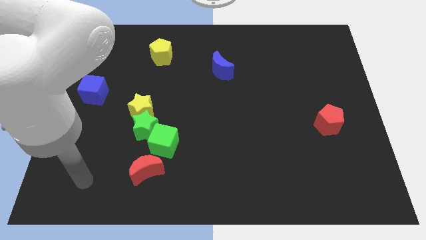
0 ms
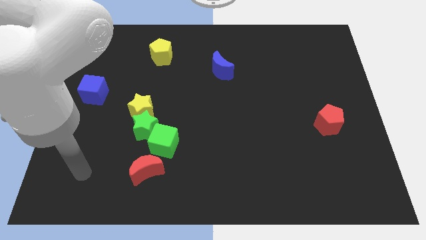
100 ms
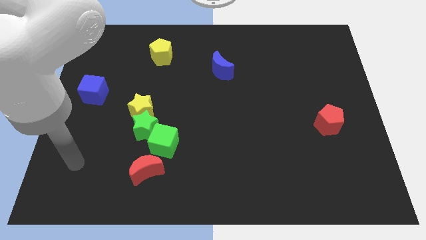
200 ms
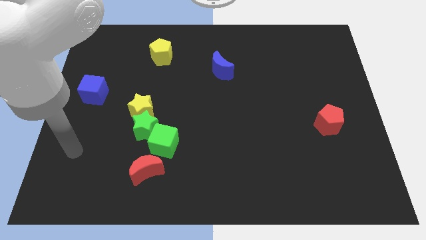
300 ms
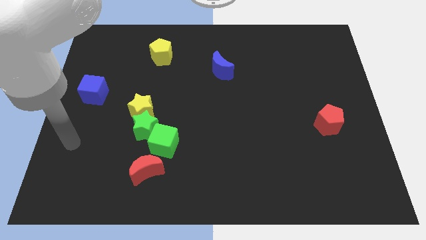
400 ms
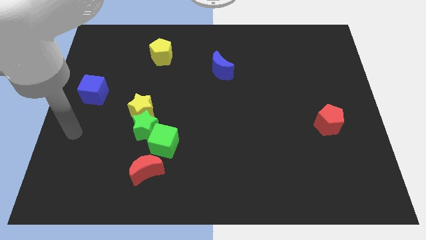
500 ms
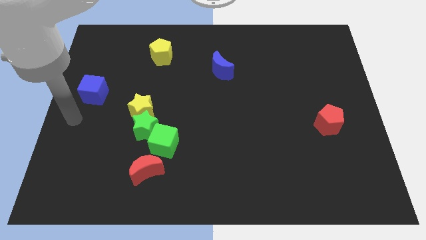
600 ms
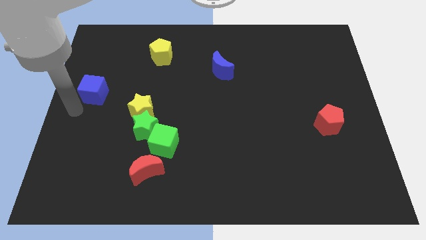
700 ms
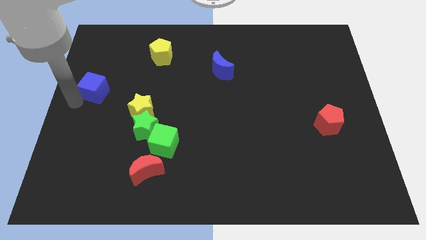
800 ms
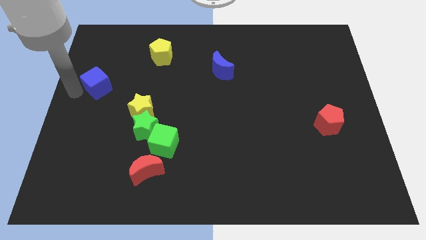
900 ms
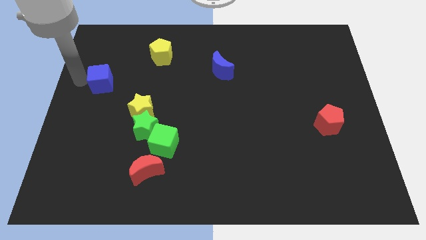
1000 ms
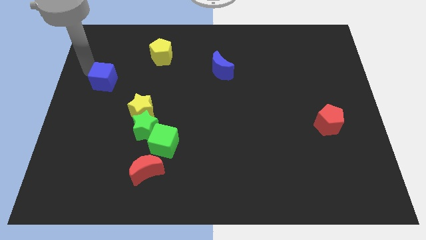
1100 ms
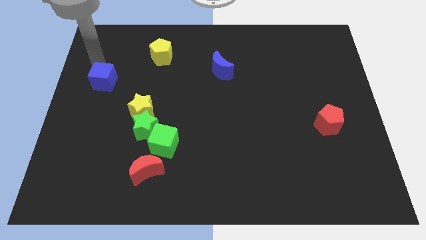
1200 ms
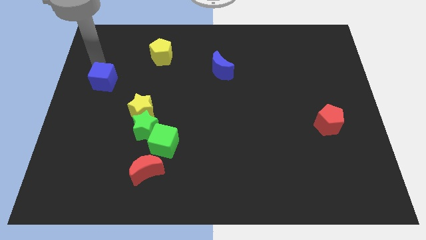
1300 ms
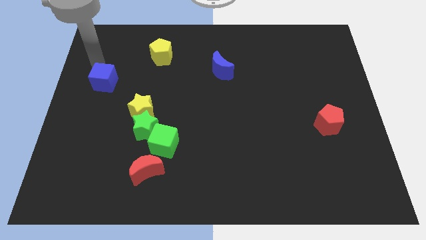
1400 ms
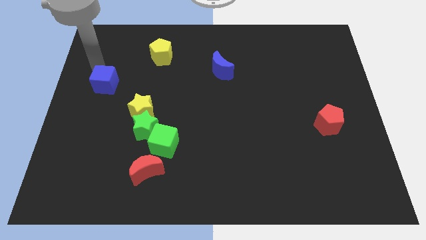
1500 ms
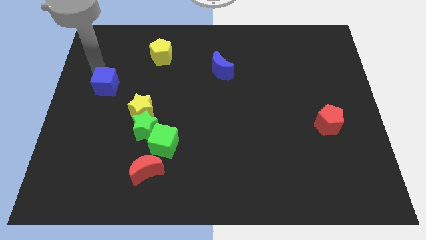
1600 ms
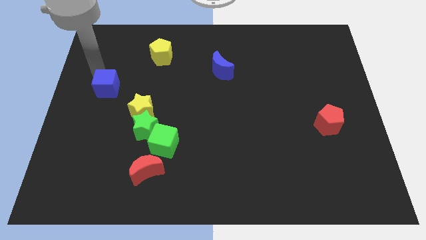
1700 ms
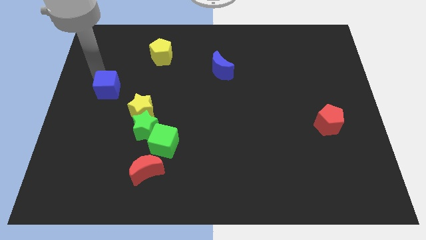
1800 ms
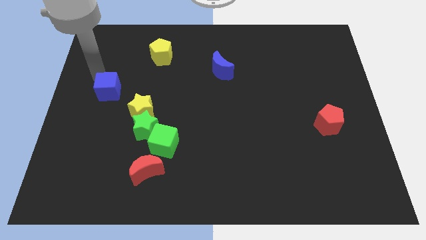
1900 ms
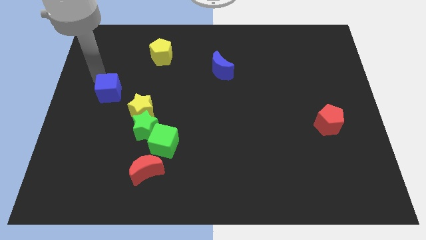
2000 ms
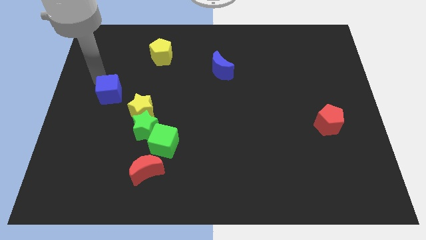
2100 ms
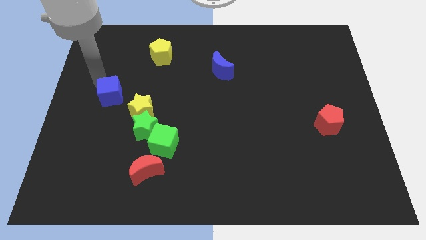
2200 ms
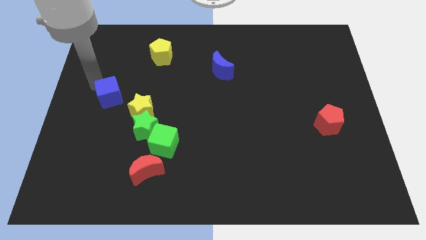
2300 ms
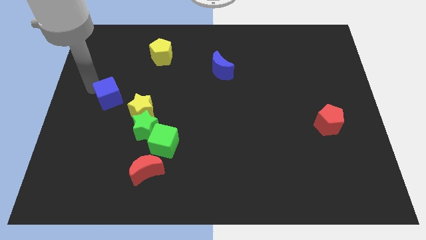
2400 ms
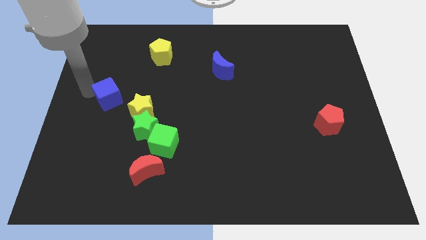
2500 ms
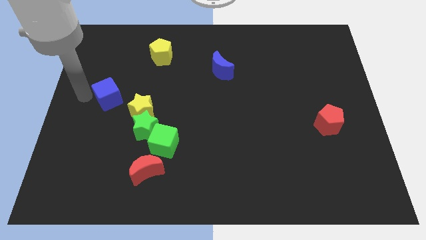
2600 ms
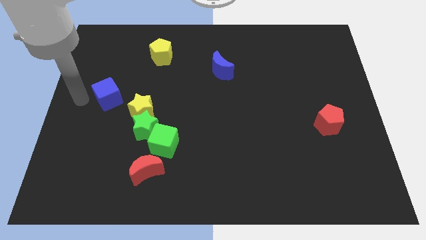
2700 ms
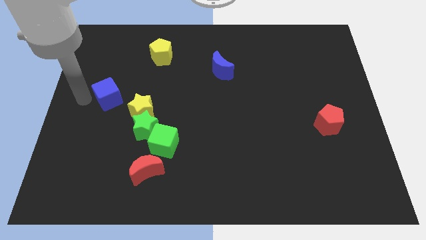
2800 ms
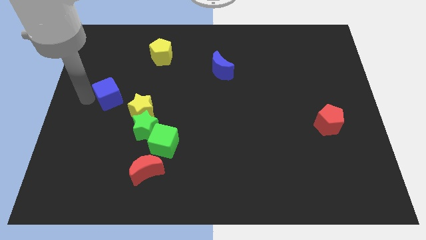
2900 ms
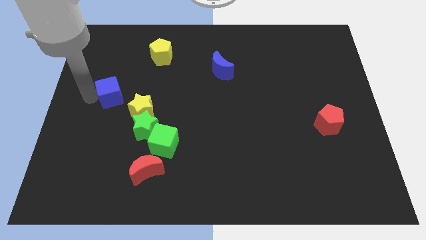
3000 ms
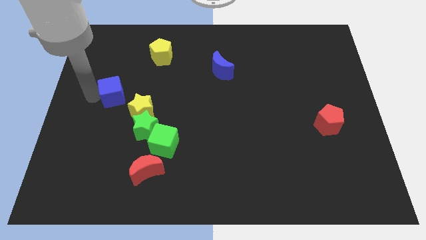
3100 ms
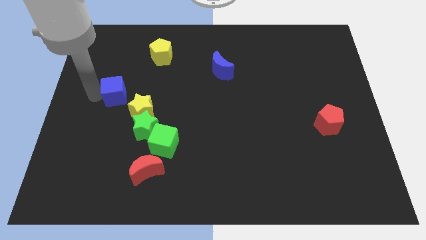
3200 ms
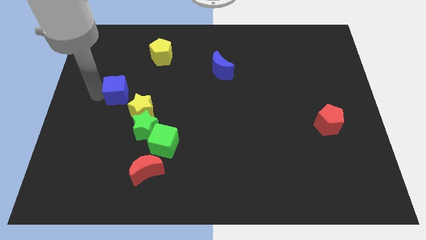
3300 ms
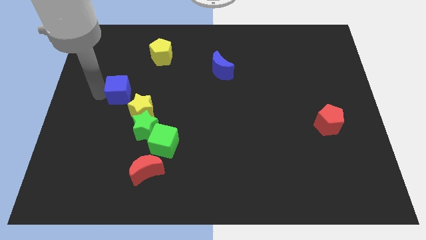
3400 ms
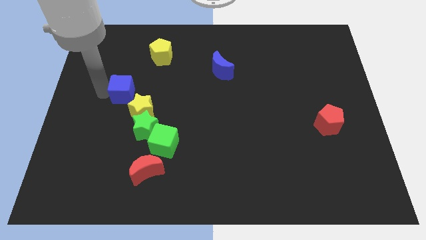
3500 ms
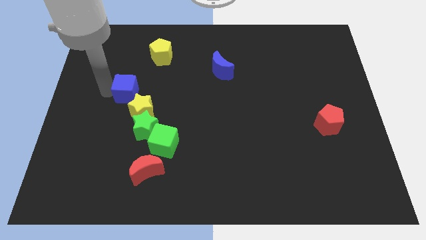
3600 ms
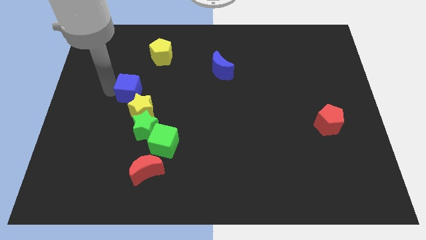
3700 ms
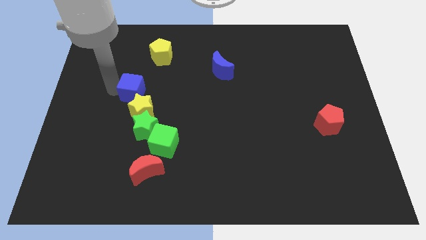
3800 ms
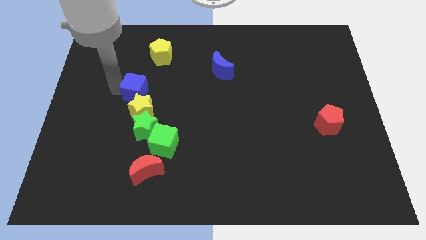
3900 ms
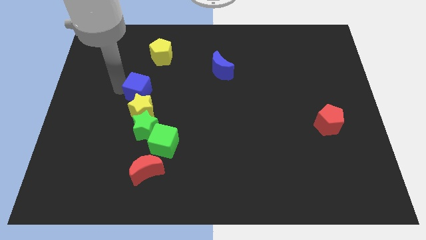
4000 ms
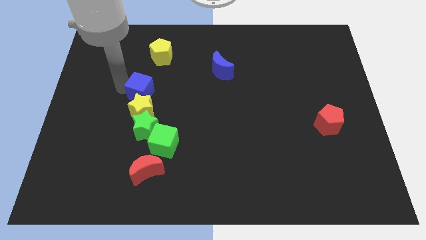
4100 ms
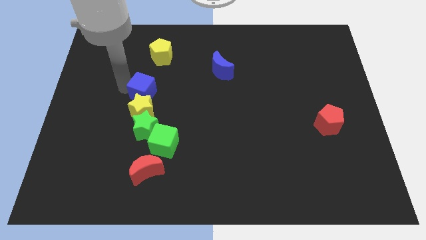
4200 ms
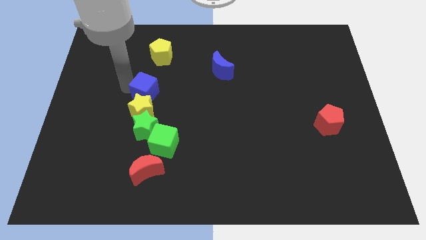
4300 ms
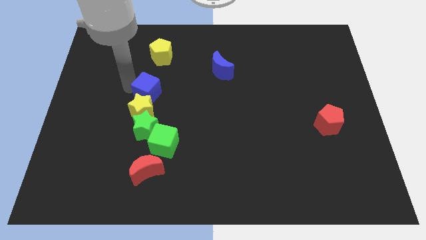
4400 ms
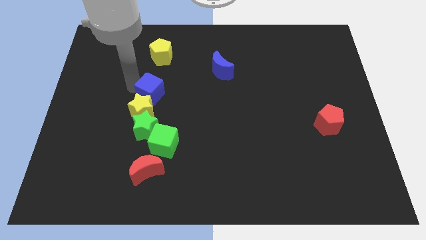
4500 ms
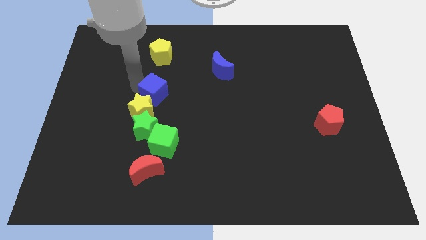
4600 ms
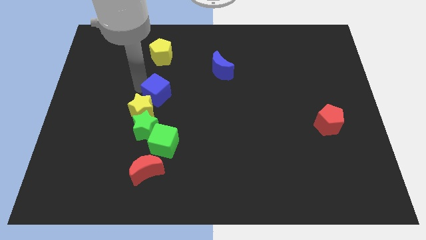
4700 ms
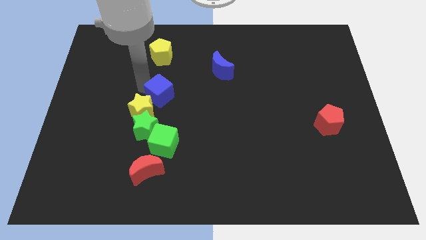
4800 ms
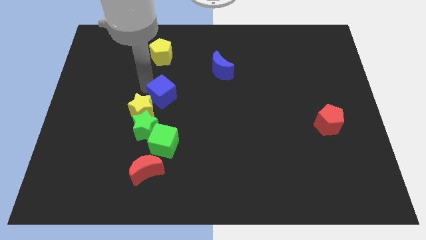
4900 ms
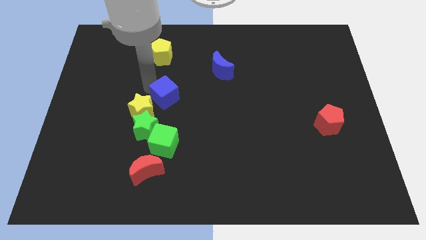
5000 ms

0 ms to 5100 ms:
push the blue cube diagonally up and to the right of the green star

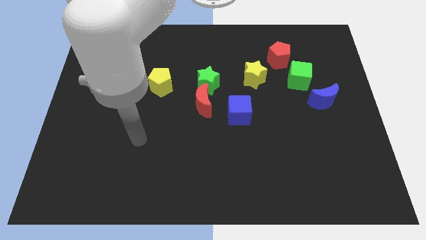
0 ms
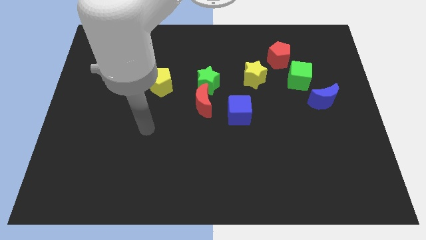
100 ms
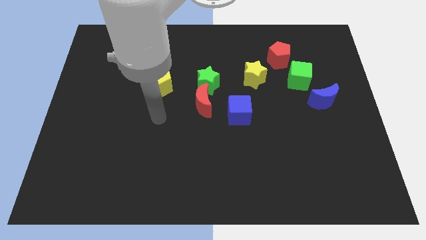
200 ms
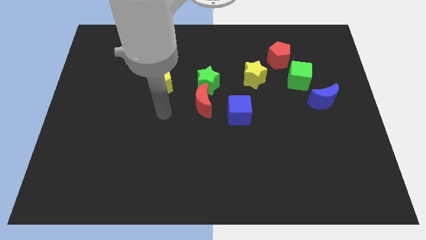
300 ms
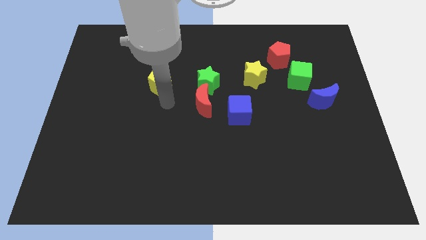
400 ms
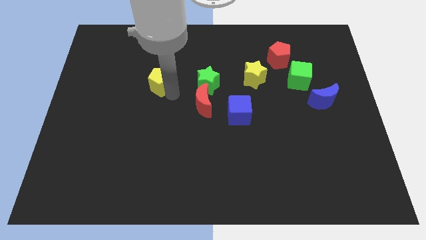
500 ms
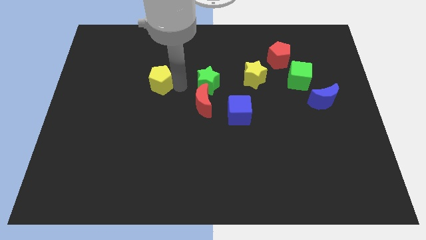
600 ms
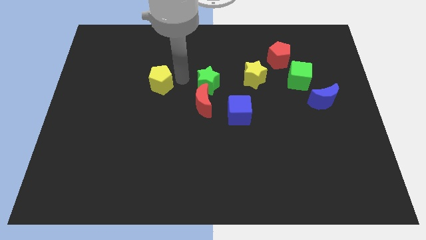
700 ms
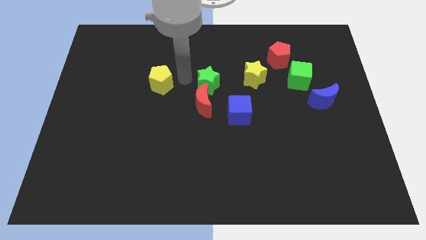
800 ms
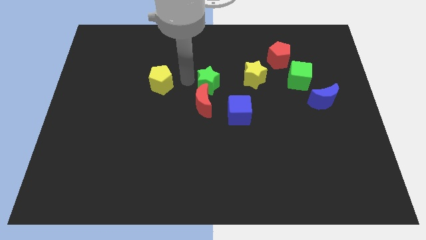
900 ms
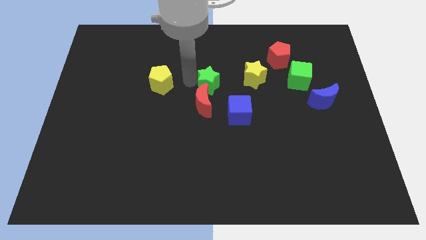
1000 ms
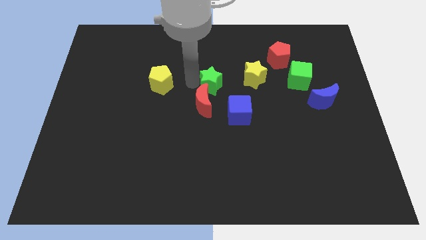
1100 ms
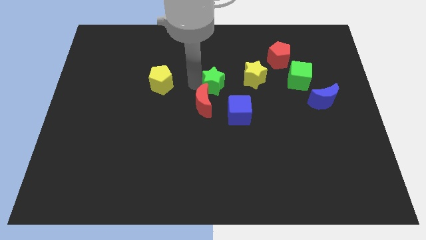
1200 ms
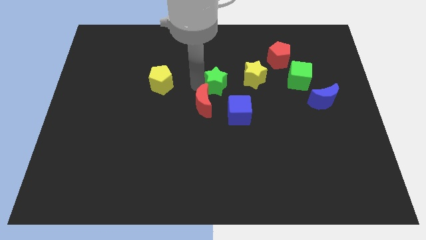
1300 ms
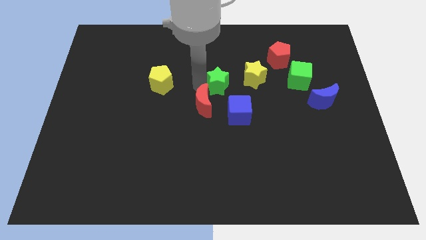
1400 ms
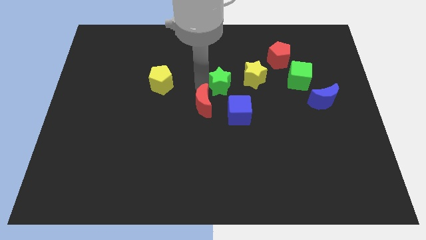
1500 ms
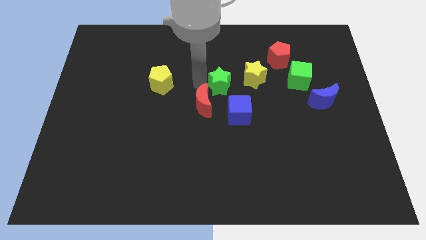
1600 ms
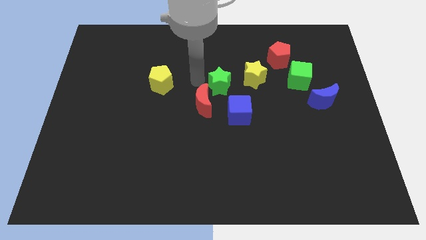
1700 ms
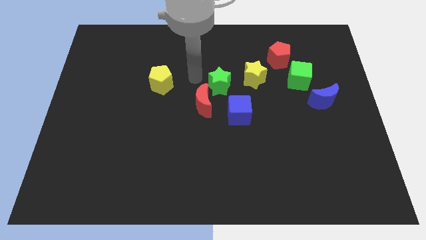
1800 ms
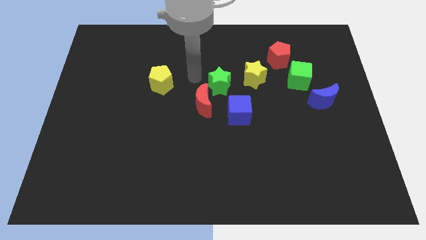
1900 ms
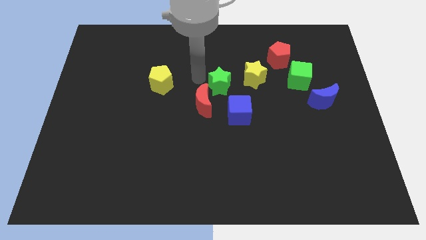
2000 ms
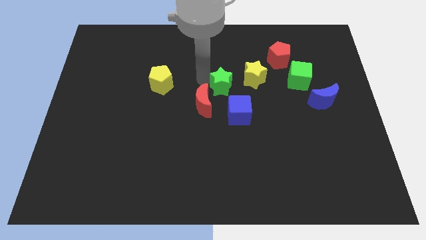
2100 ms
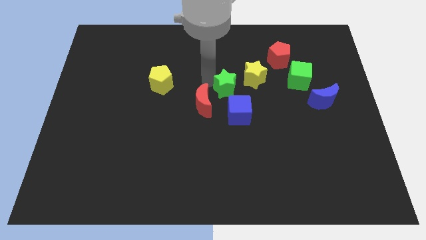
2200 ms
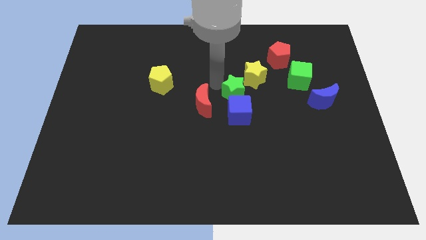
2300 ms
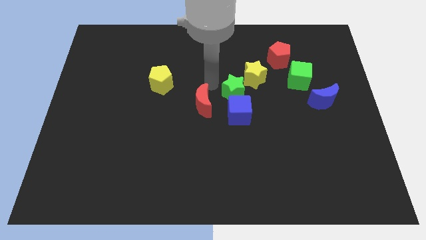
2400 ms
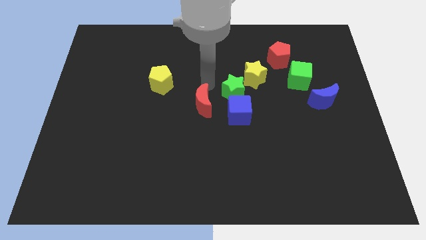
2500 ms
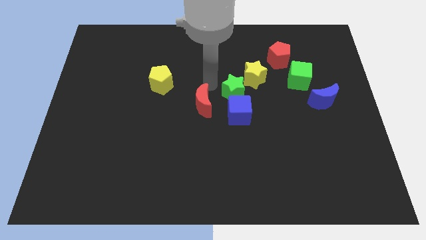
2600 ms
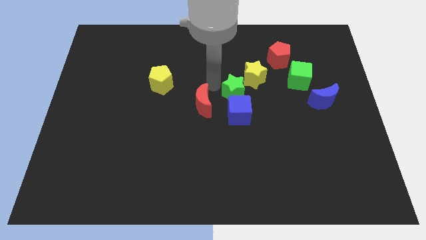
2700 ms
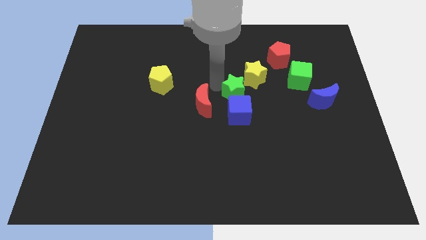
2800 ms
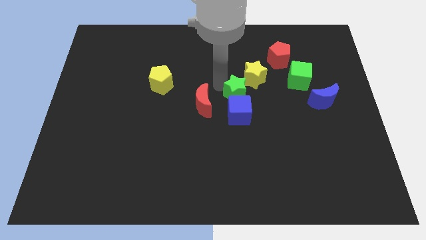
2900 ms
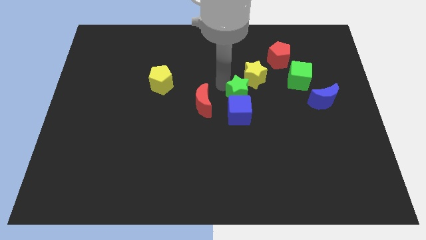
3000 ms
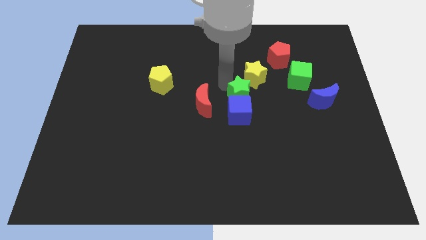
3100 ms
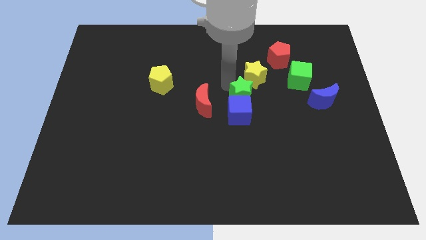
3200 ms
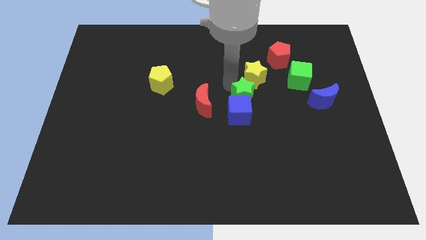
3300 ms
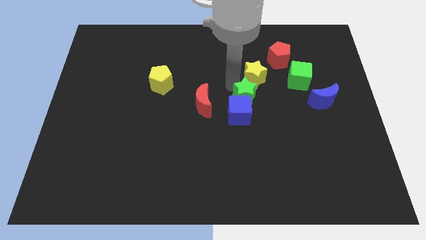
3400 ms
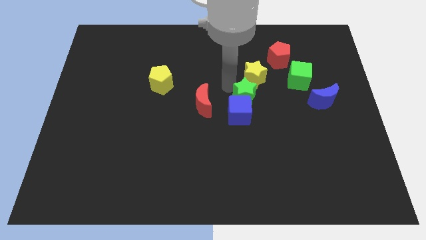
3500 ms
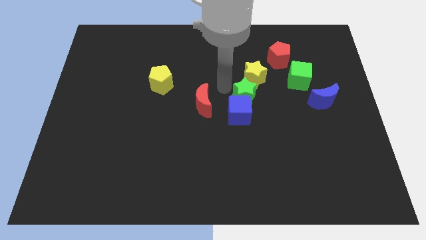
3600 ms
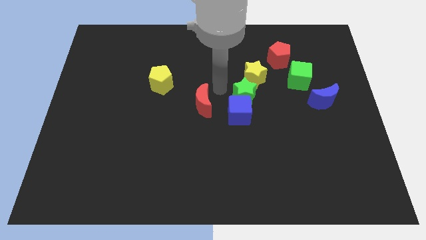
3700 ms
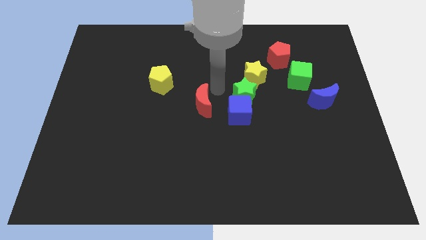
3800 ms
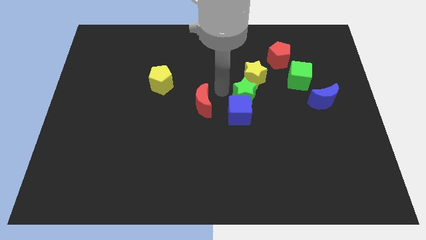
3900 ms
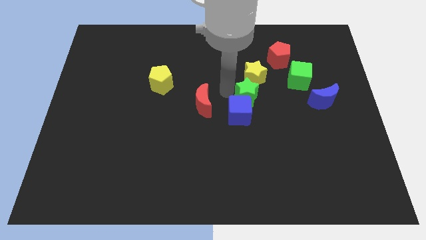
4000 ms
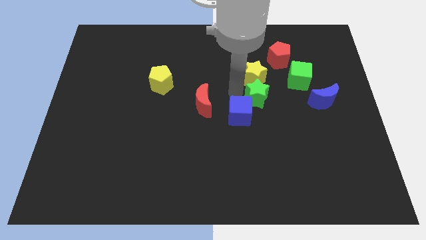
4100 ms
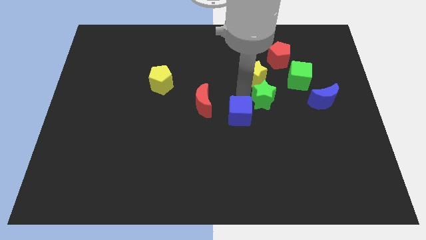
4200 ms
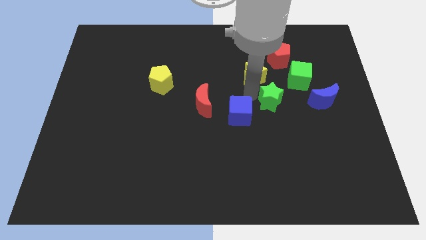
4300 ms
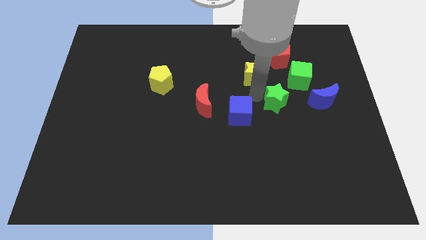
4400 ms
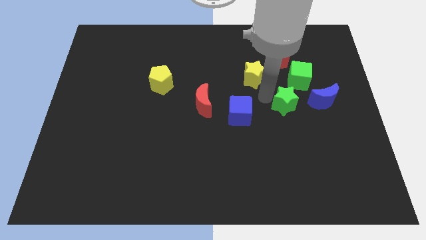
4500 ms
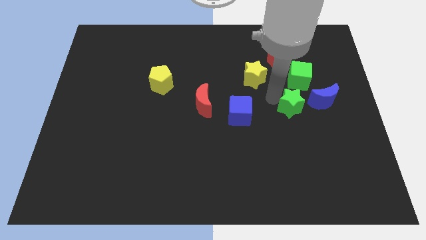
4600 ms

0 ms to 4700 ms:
push the green star diagonally down and to the left of the blue moon
